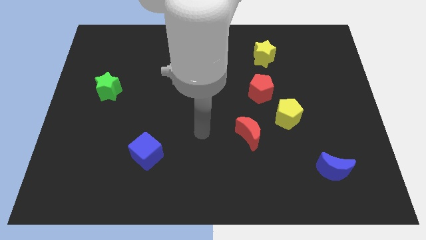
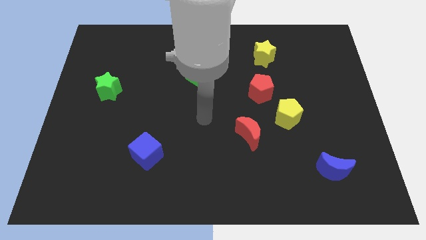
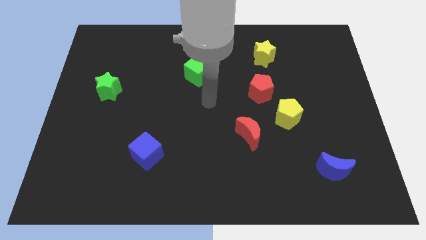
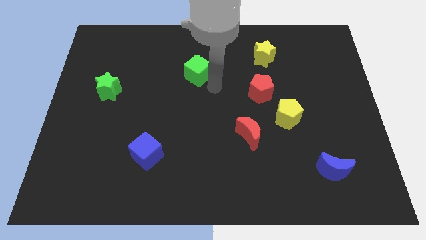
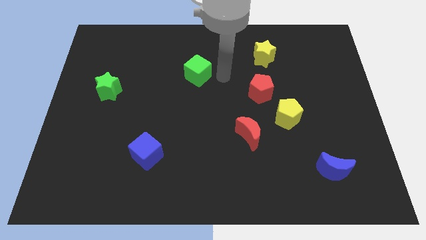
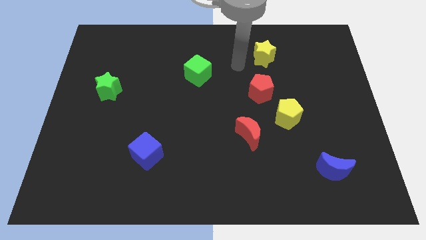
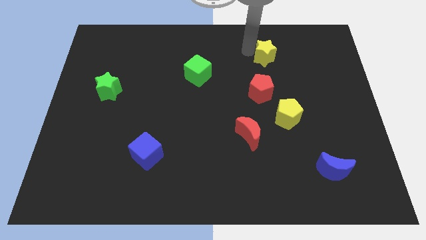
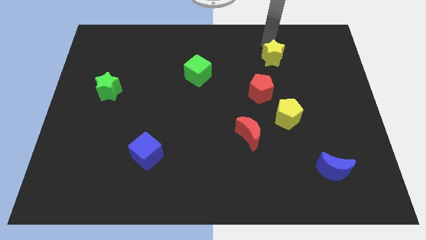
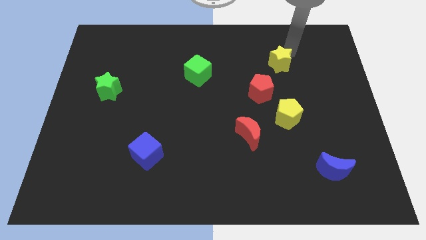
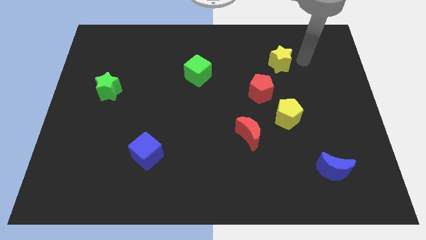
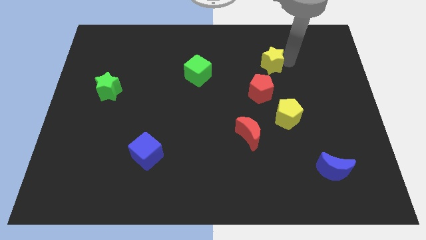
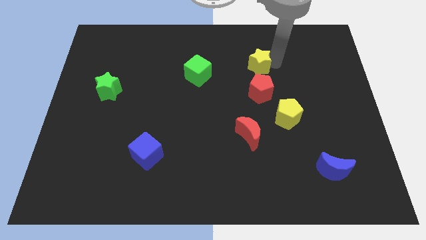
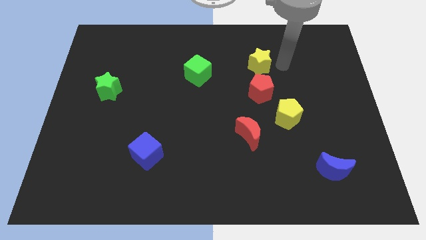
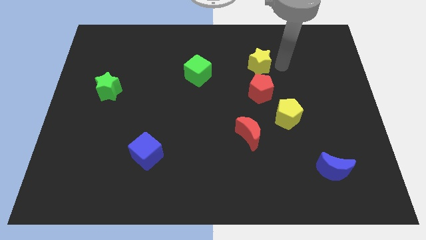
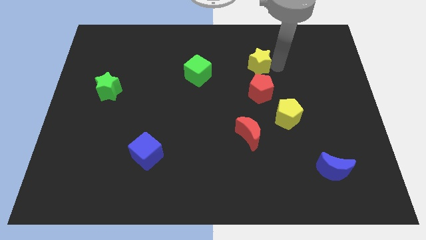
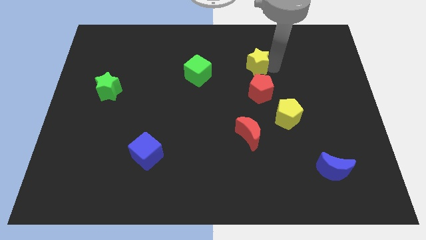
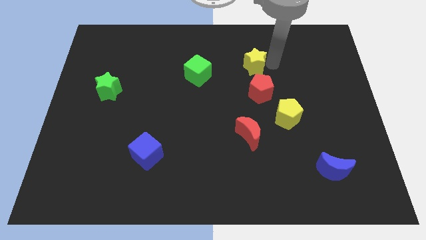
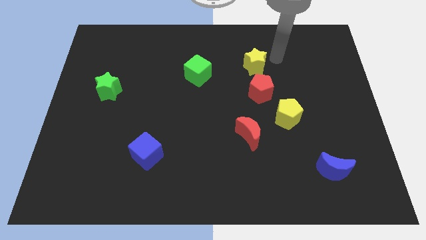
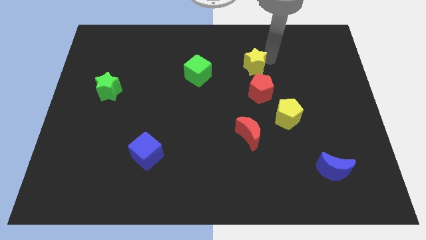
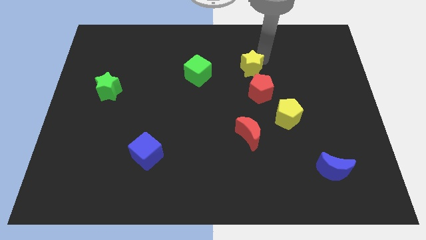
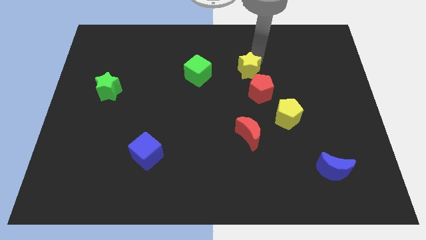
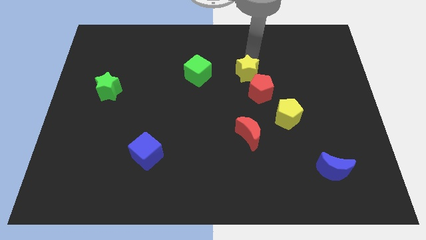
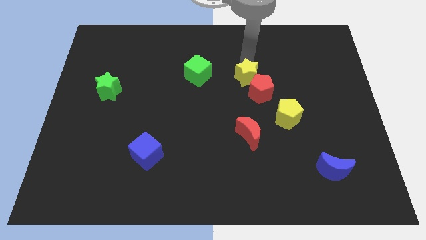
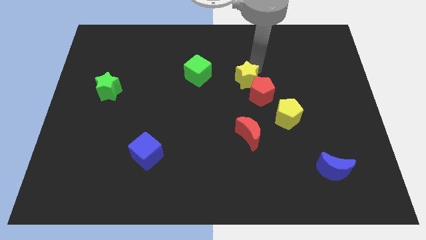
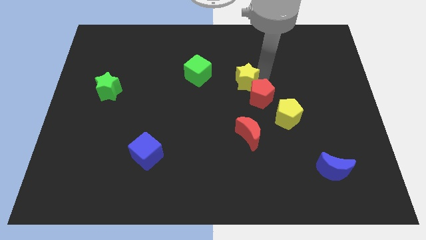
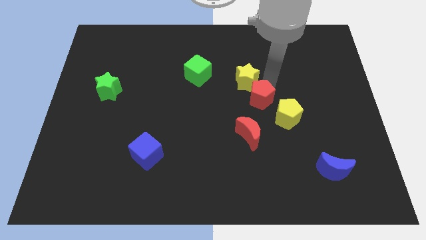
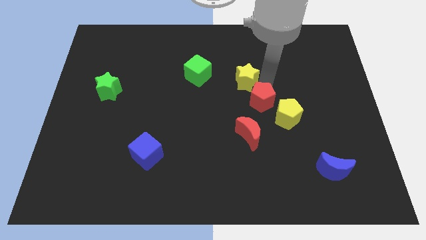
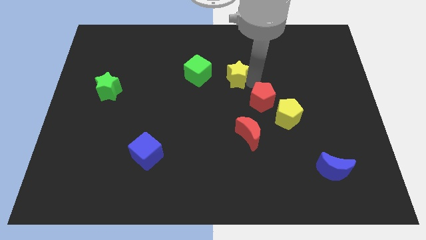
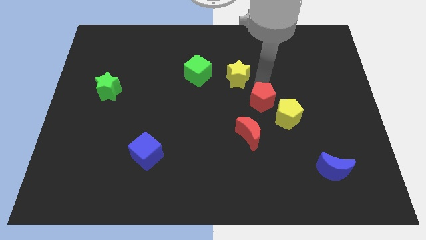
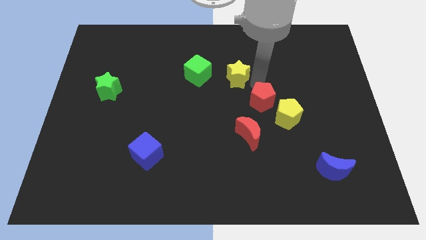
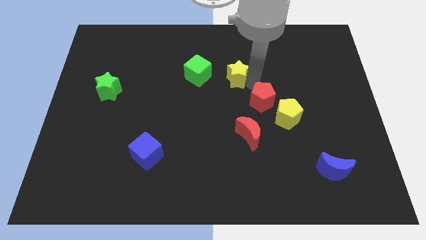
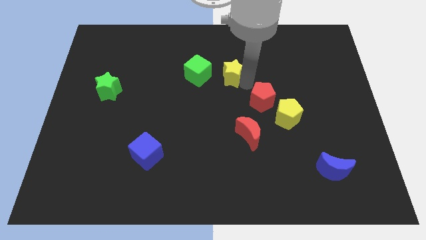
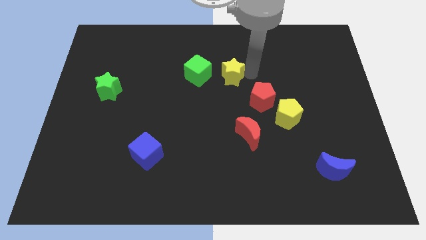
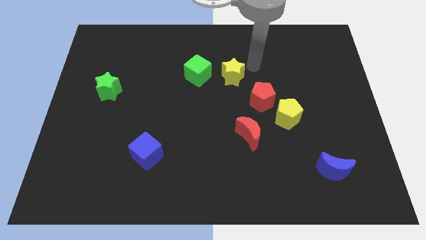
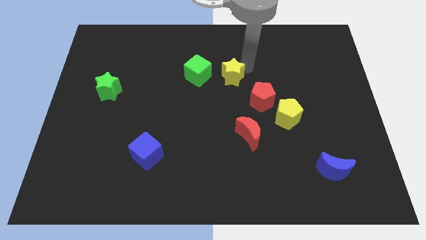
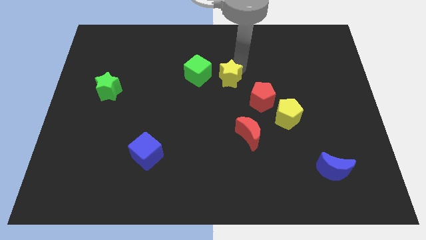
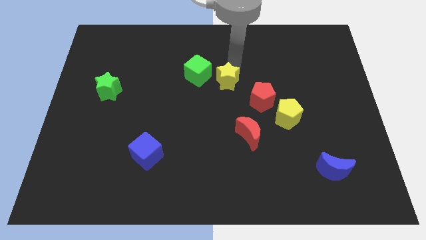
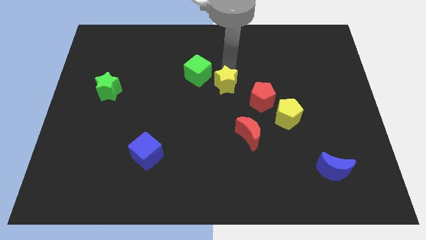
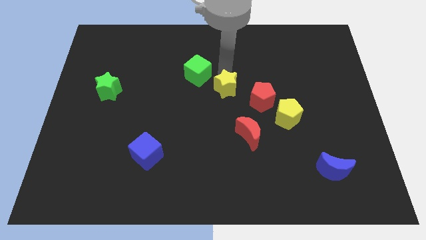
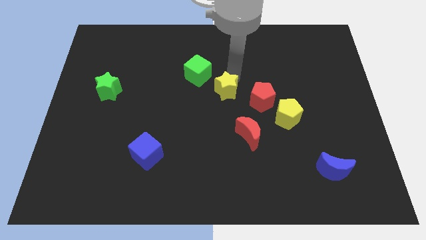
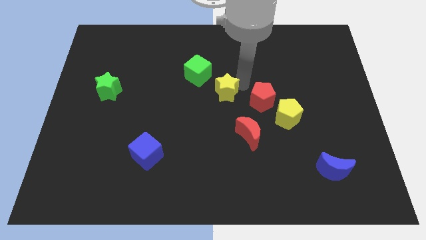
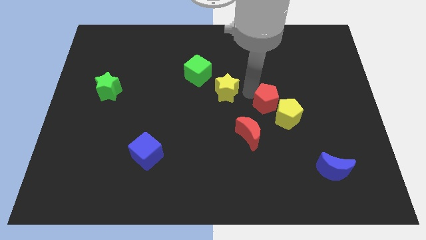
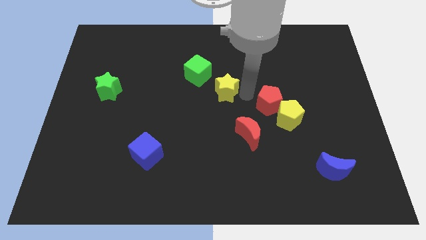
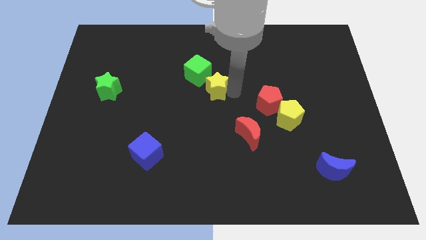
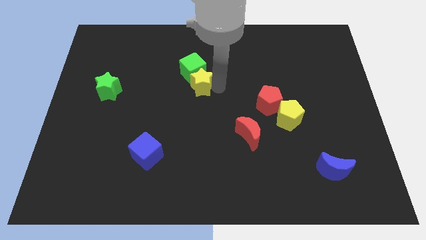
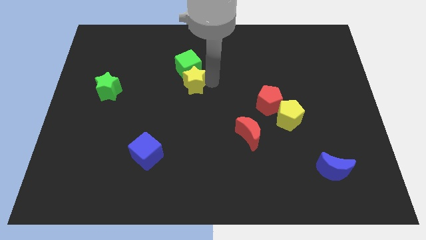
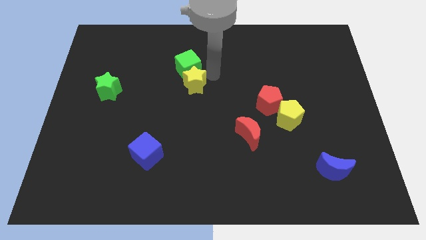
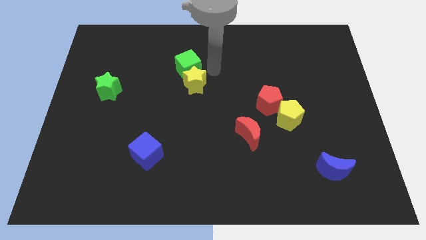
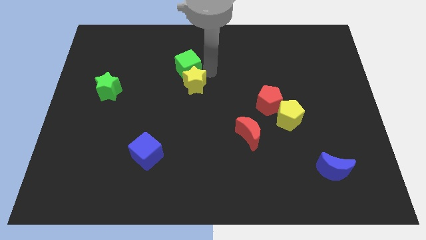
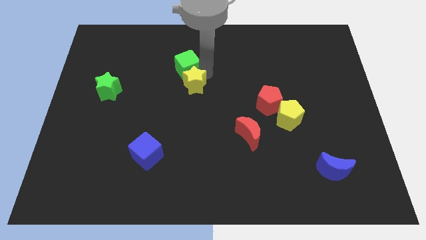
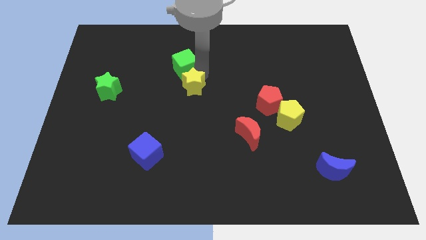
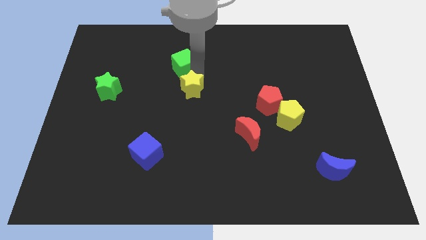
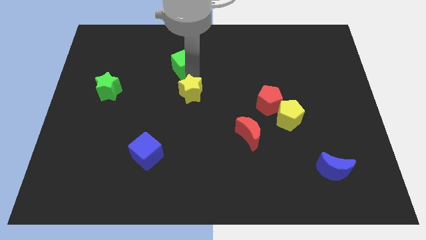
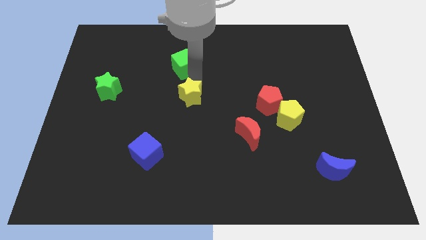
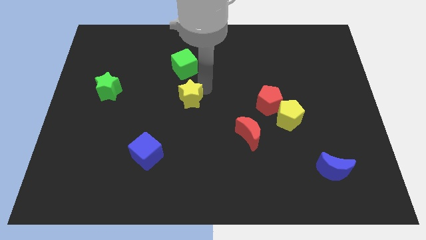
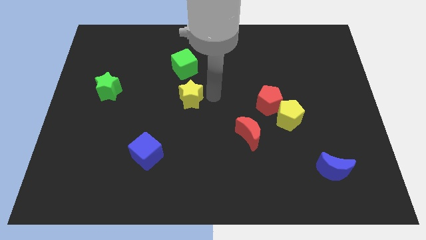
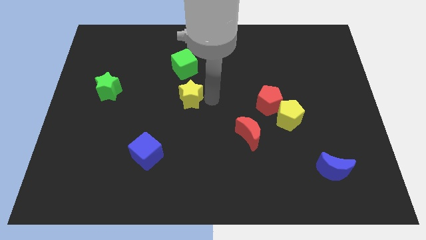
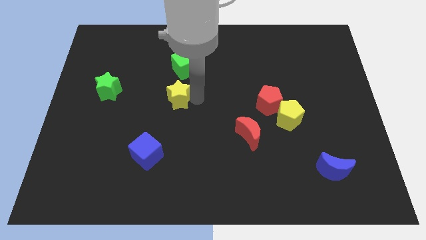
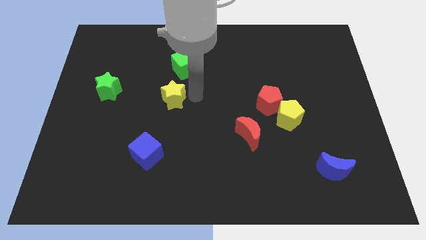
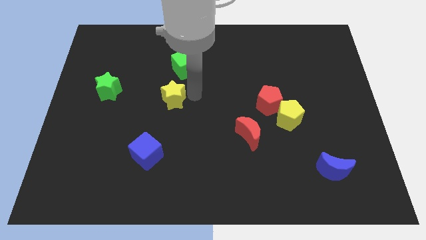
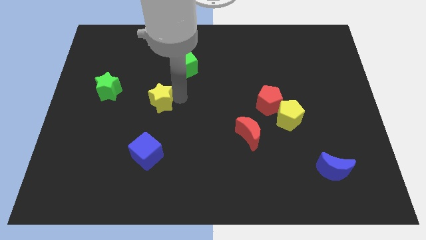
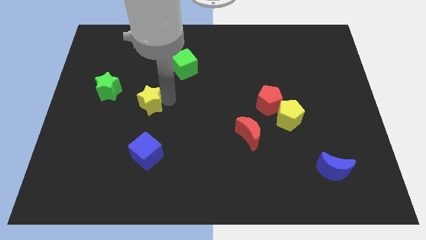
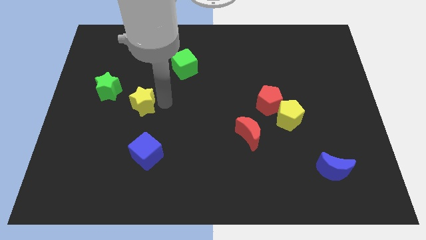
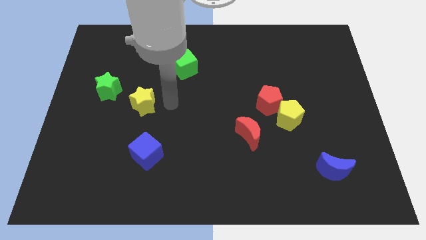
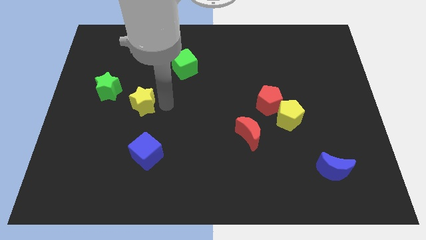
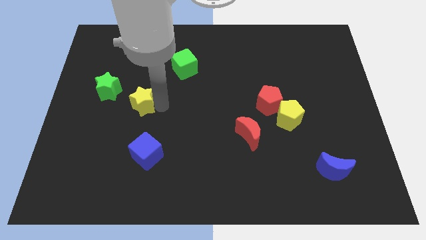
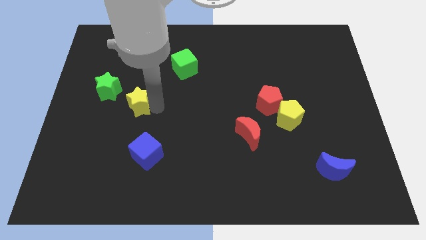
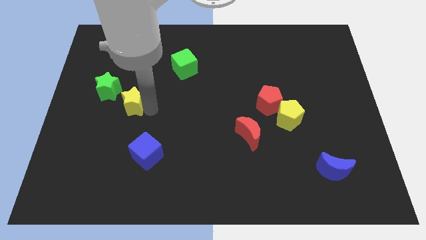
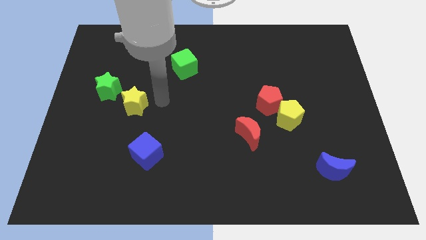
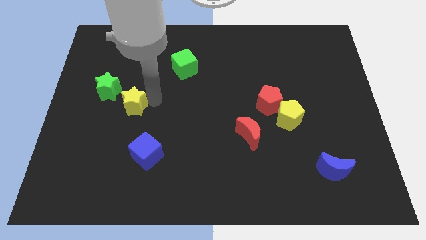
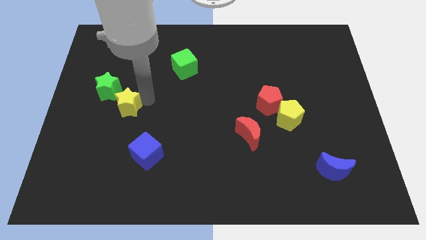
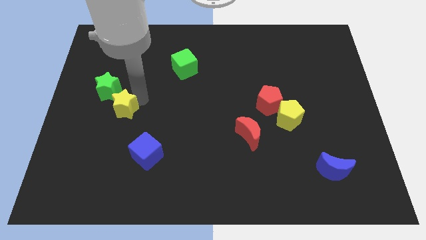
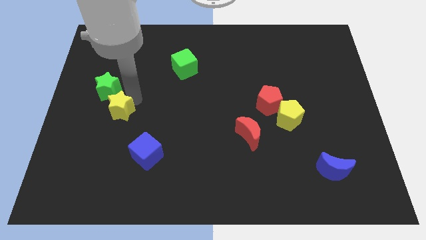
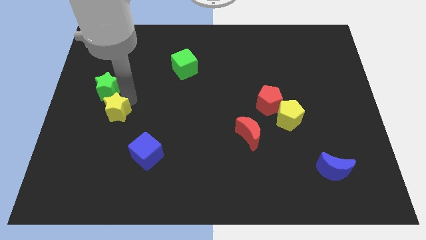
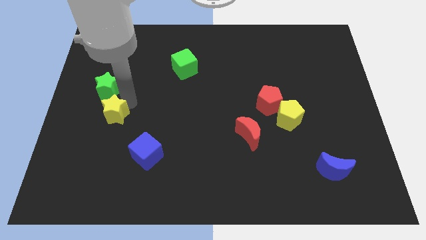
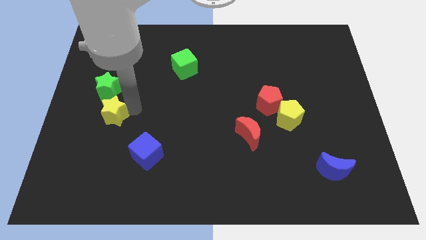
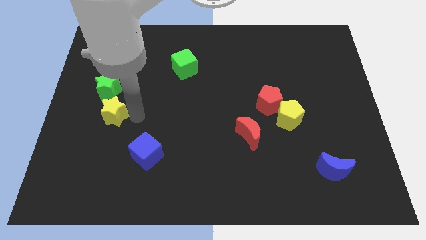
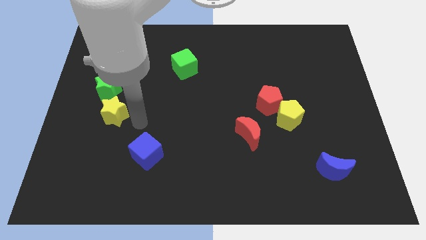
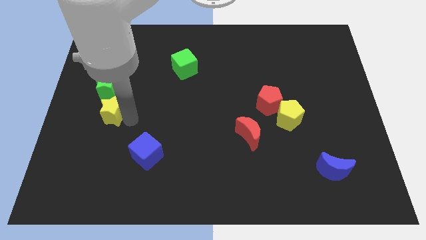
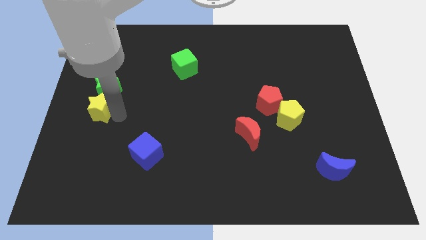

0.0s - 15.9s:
move the yellow star to the left side
